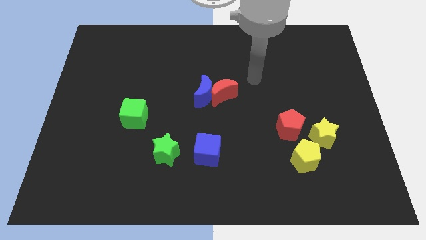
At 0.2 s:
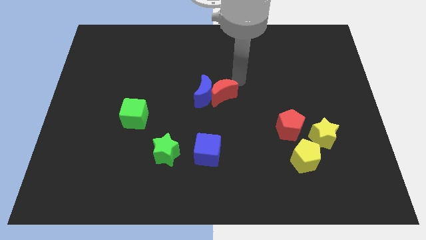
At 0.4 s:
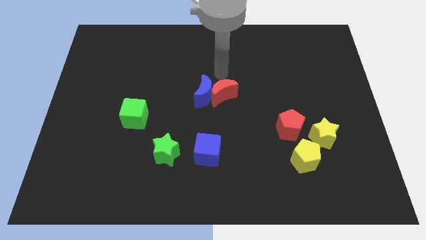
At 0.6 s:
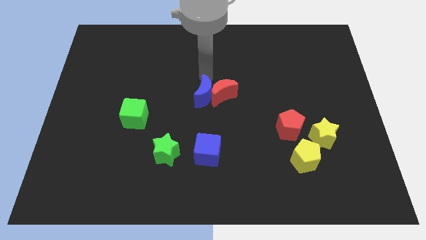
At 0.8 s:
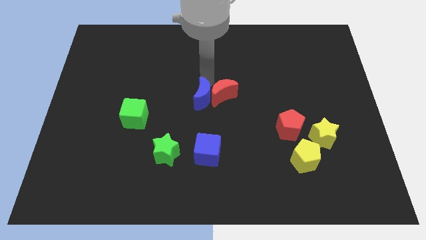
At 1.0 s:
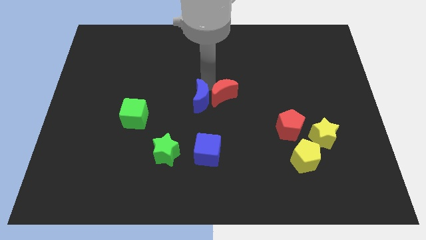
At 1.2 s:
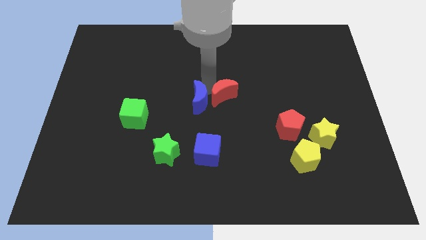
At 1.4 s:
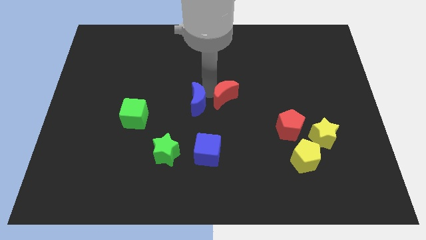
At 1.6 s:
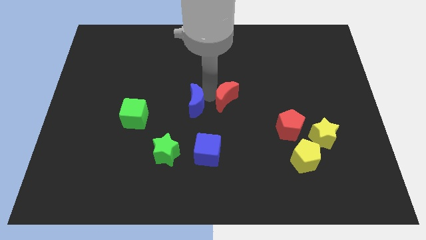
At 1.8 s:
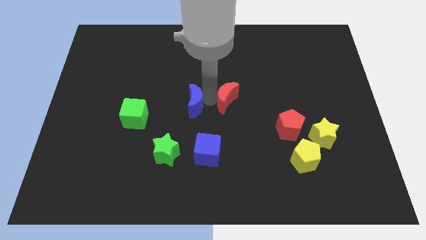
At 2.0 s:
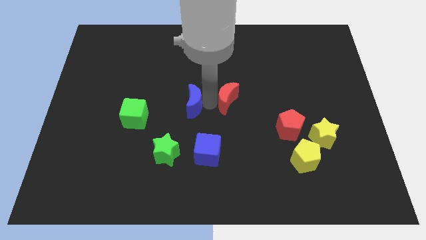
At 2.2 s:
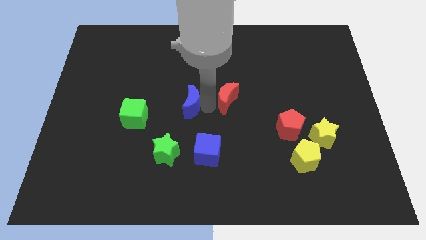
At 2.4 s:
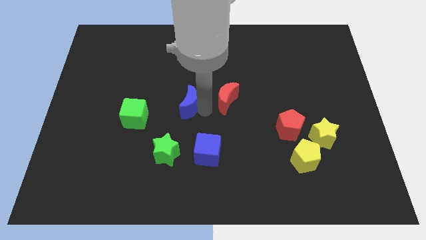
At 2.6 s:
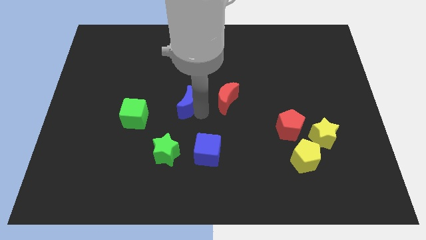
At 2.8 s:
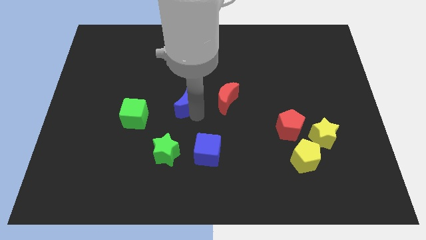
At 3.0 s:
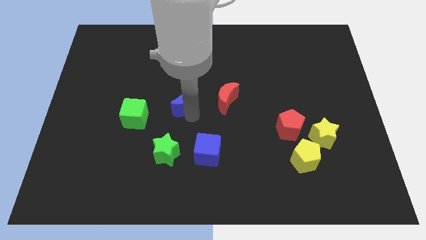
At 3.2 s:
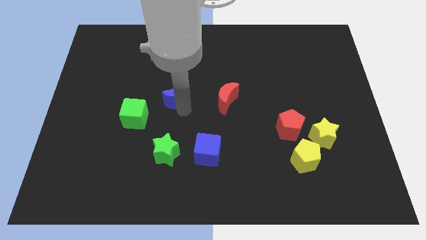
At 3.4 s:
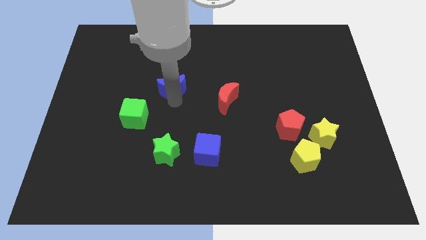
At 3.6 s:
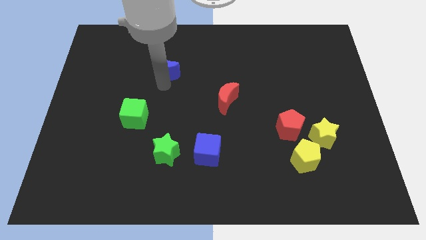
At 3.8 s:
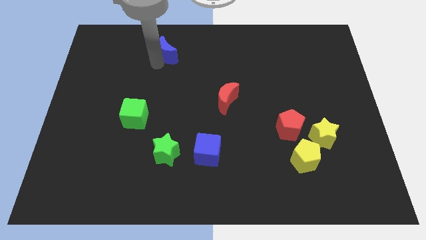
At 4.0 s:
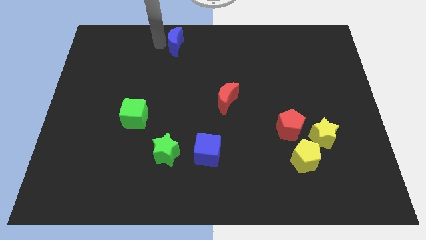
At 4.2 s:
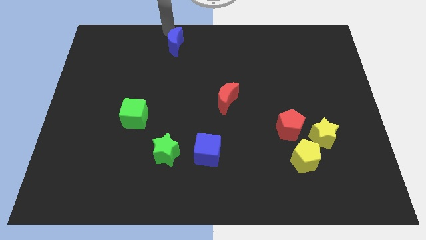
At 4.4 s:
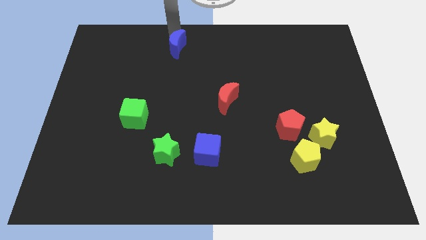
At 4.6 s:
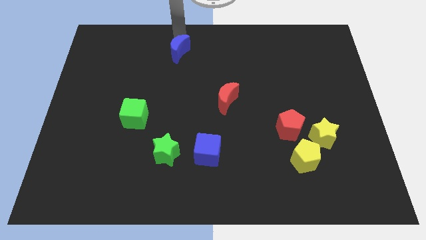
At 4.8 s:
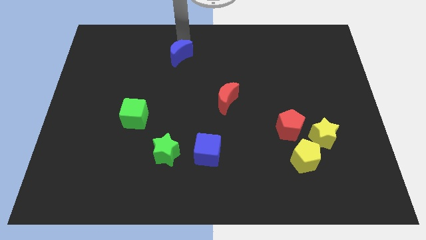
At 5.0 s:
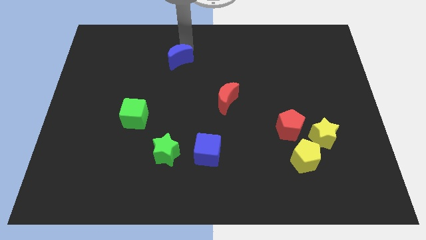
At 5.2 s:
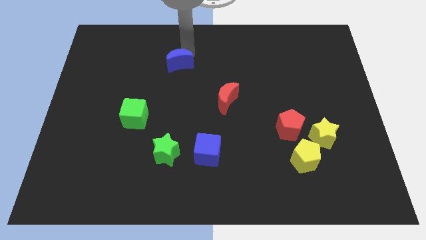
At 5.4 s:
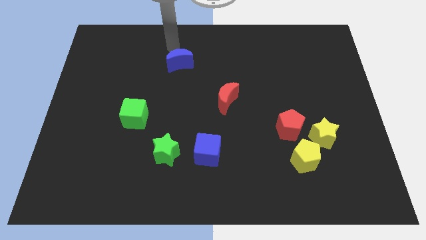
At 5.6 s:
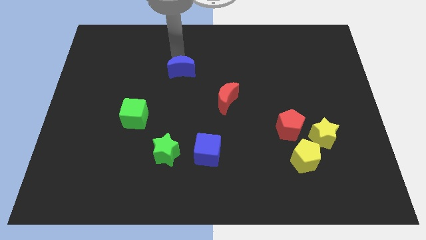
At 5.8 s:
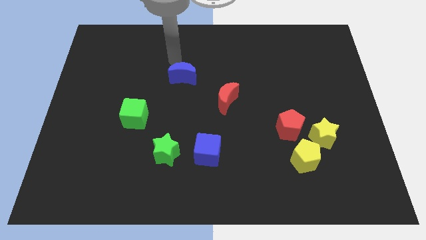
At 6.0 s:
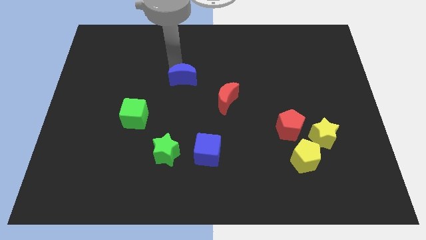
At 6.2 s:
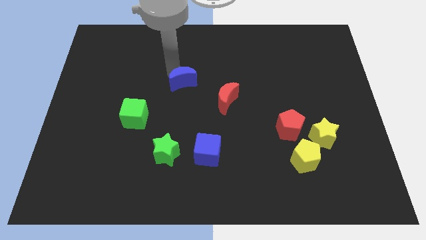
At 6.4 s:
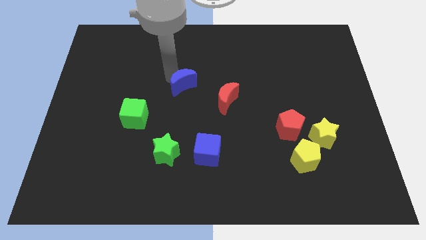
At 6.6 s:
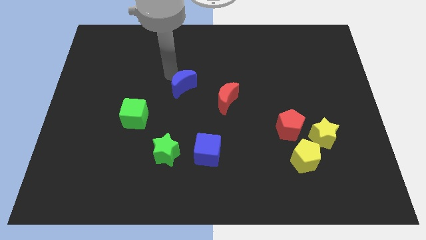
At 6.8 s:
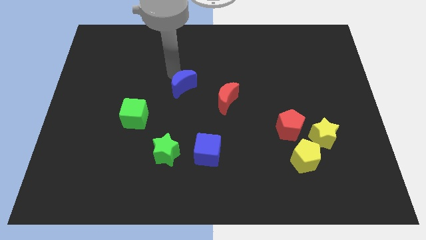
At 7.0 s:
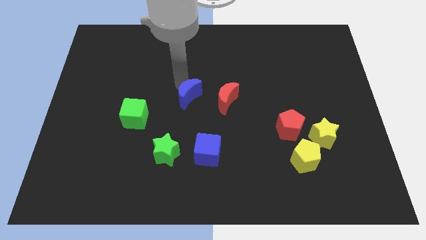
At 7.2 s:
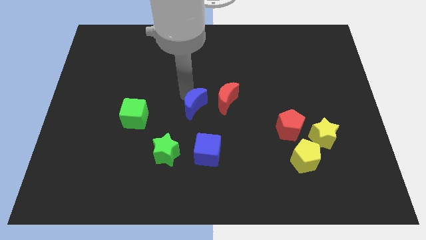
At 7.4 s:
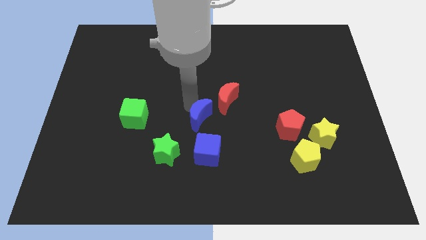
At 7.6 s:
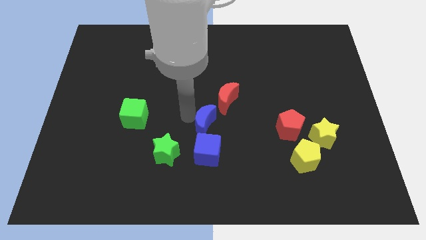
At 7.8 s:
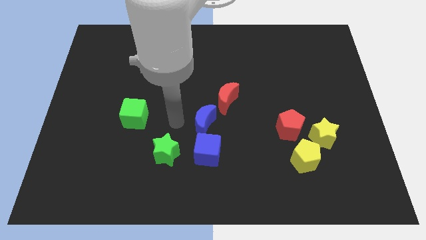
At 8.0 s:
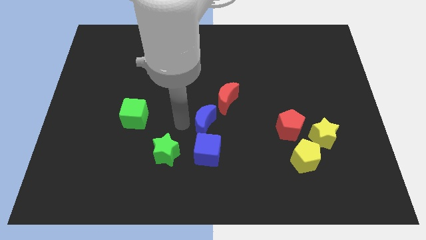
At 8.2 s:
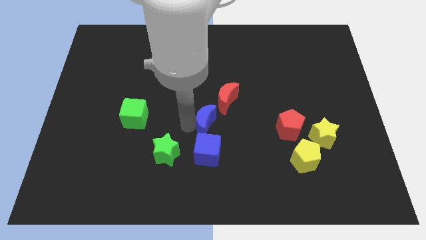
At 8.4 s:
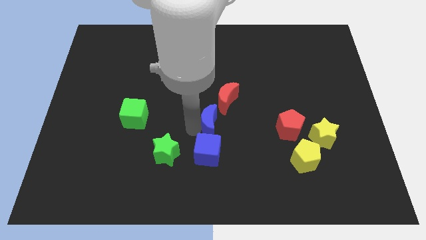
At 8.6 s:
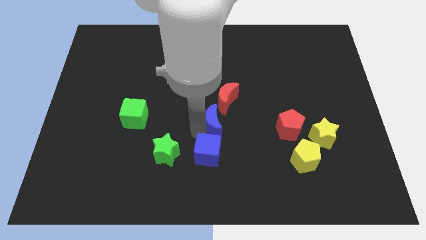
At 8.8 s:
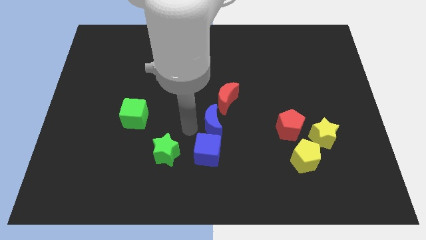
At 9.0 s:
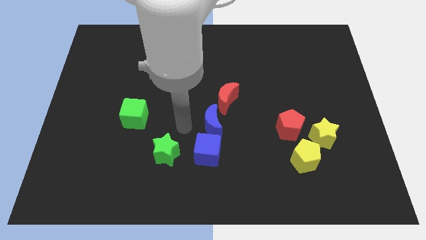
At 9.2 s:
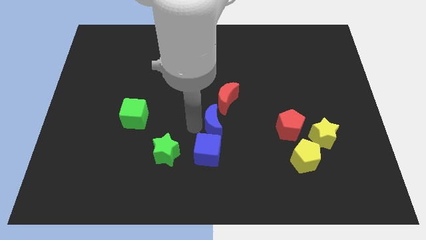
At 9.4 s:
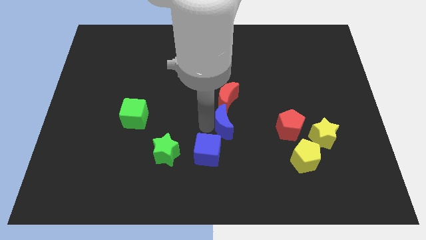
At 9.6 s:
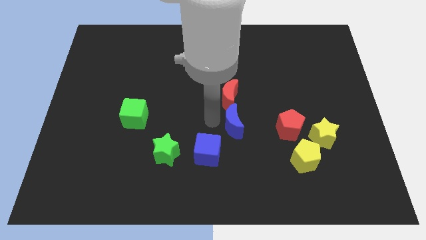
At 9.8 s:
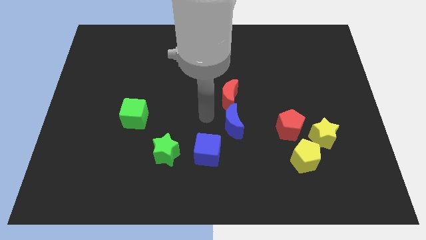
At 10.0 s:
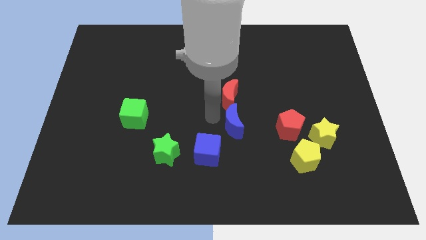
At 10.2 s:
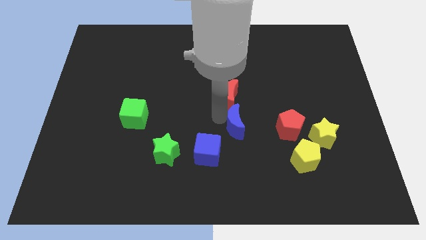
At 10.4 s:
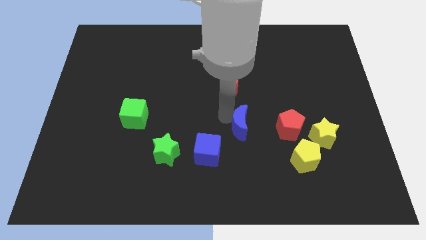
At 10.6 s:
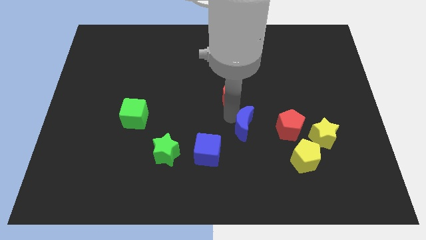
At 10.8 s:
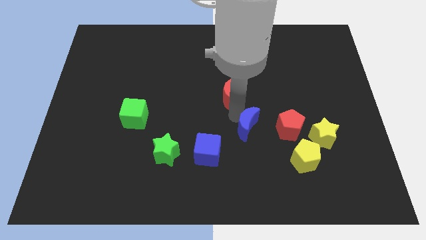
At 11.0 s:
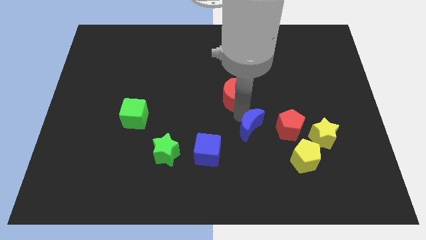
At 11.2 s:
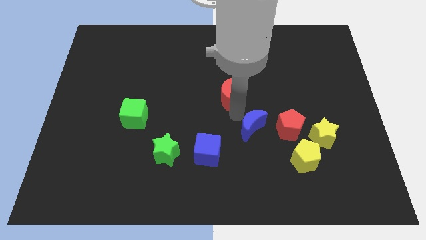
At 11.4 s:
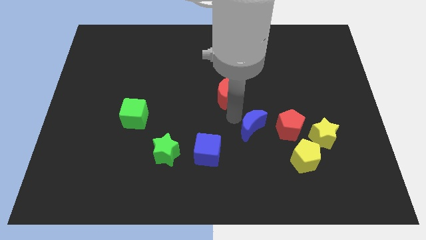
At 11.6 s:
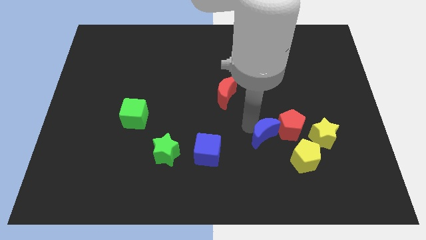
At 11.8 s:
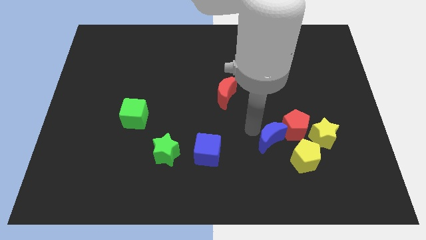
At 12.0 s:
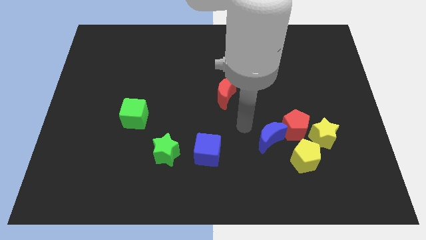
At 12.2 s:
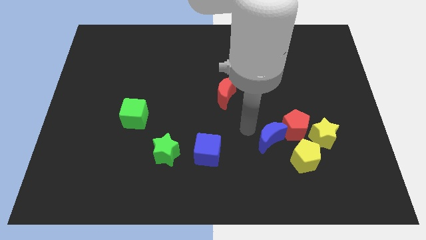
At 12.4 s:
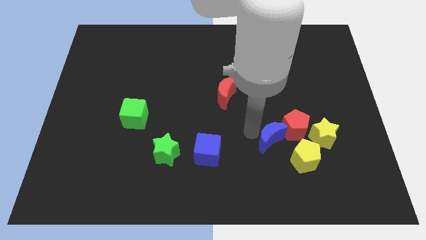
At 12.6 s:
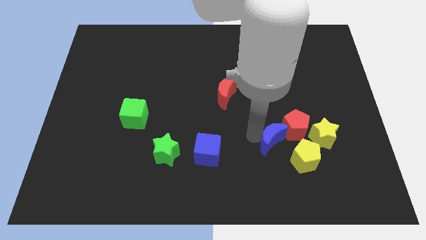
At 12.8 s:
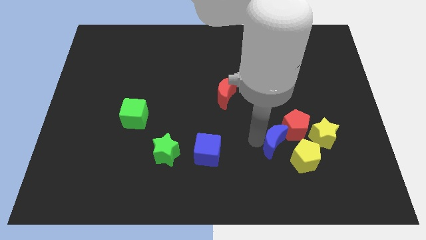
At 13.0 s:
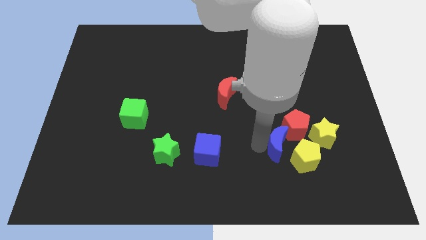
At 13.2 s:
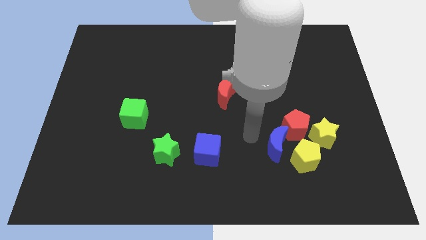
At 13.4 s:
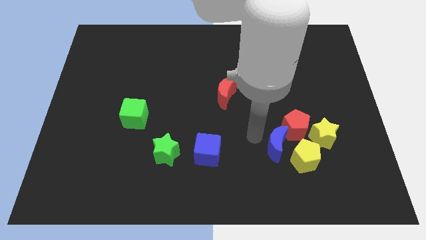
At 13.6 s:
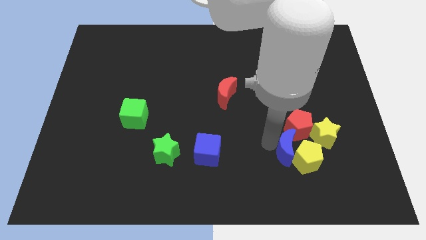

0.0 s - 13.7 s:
move the blue moon close to the yellow pentagon
